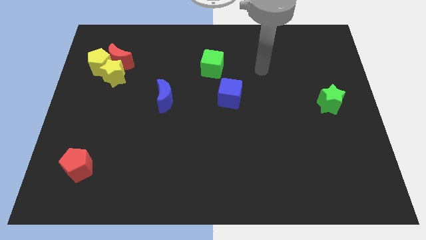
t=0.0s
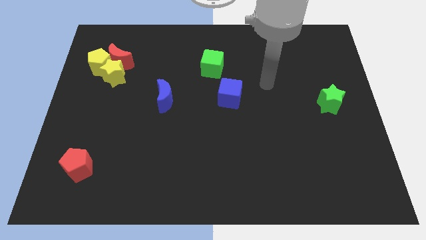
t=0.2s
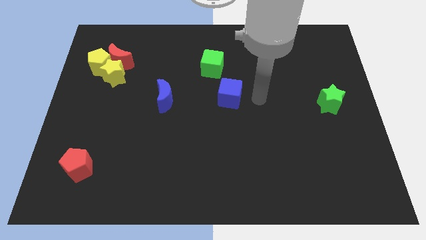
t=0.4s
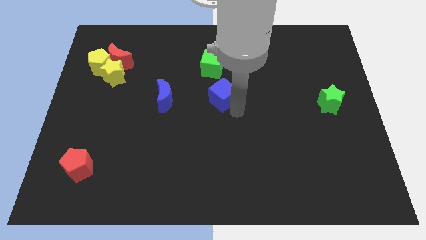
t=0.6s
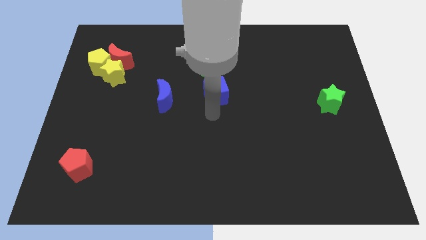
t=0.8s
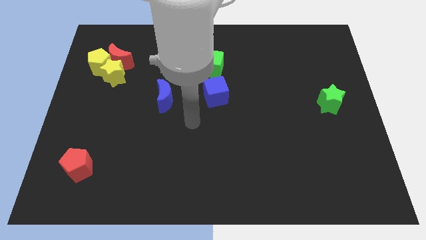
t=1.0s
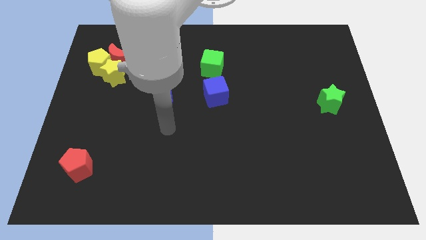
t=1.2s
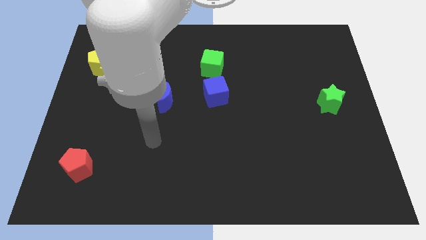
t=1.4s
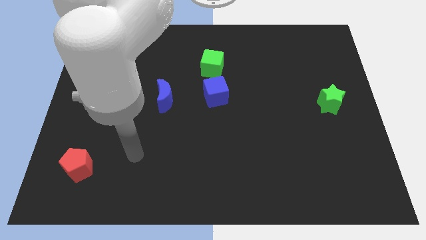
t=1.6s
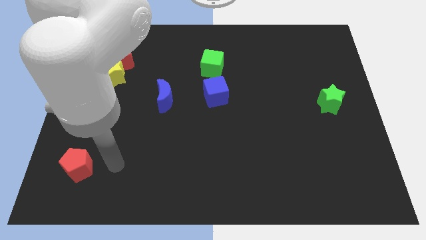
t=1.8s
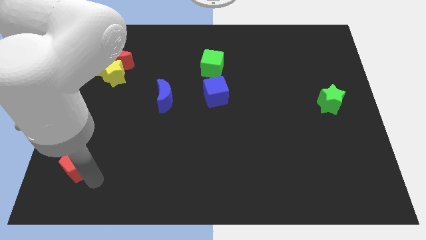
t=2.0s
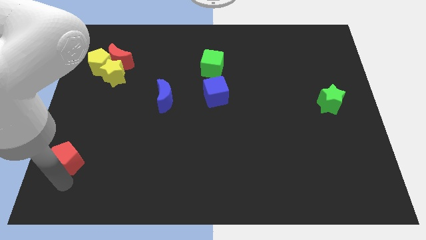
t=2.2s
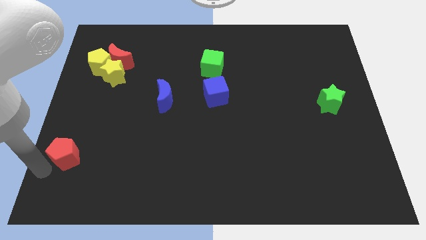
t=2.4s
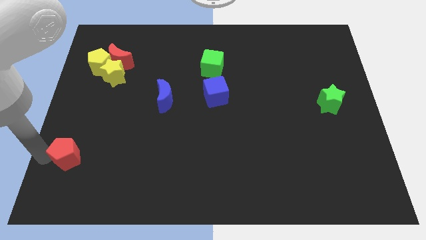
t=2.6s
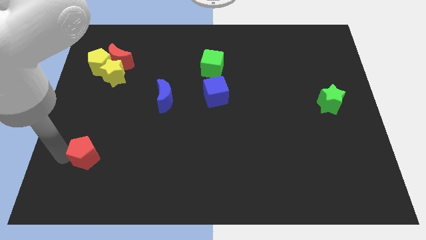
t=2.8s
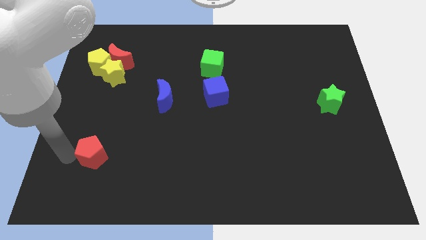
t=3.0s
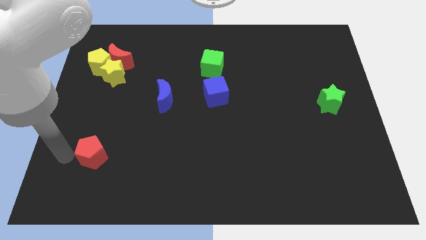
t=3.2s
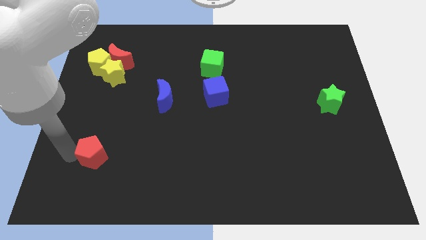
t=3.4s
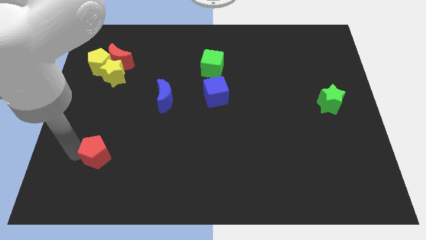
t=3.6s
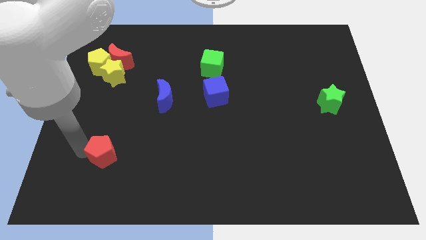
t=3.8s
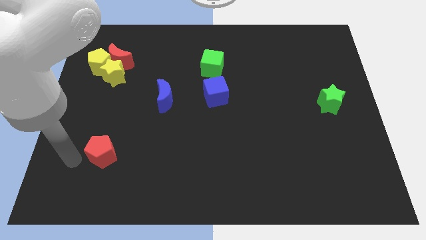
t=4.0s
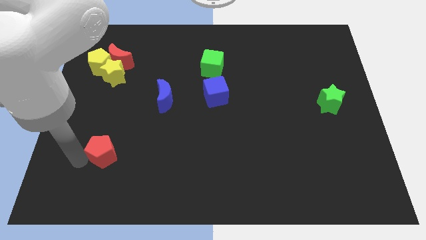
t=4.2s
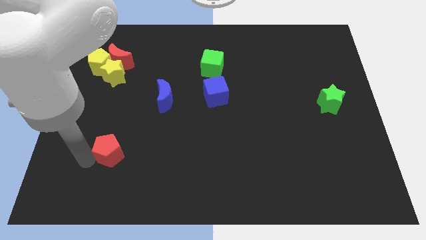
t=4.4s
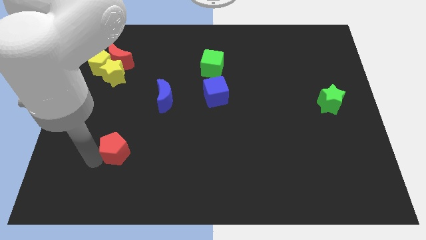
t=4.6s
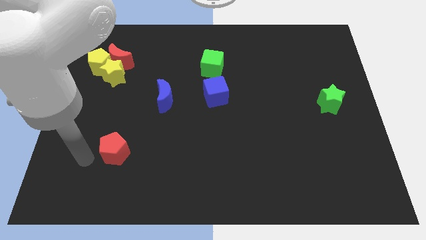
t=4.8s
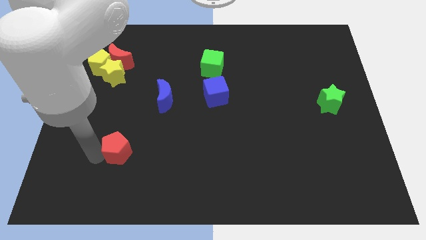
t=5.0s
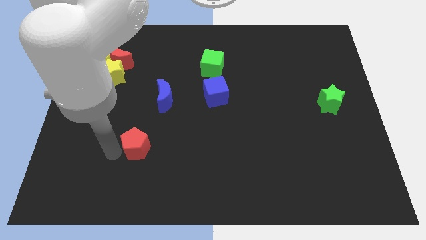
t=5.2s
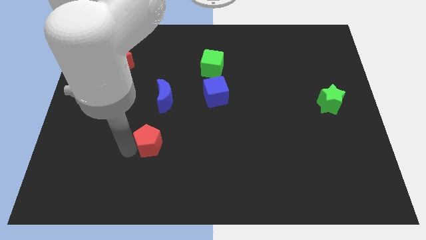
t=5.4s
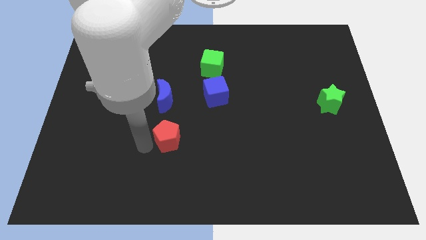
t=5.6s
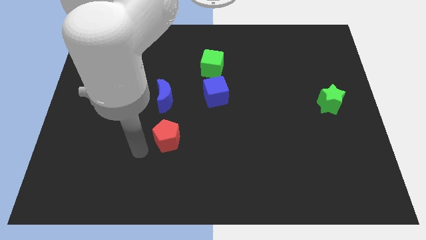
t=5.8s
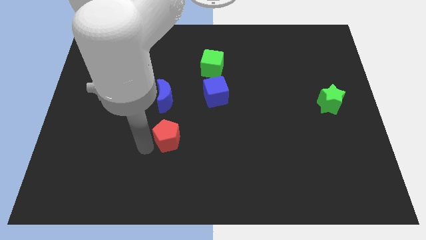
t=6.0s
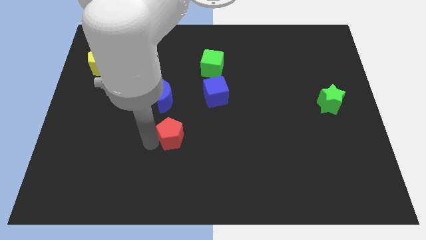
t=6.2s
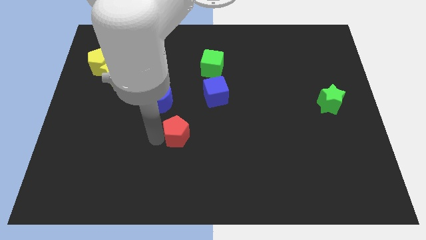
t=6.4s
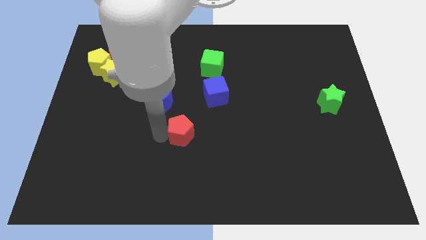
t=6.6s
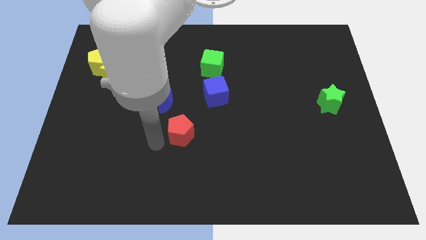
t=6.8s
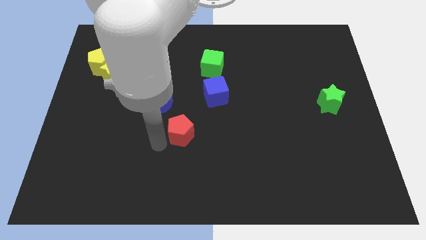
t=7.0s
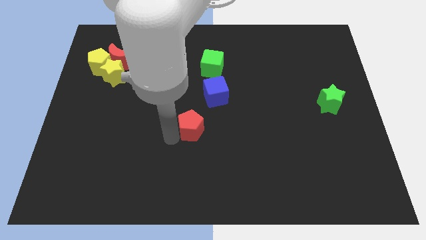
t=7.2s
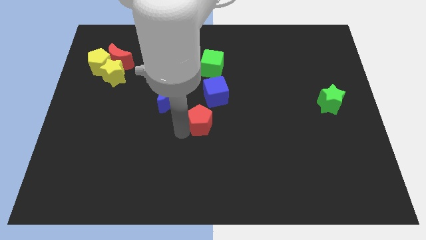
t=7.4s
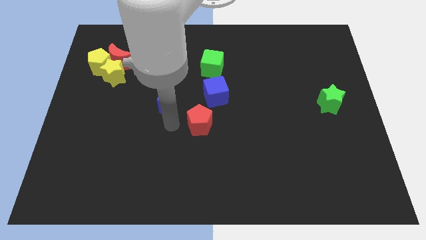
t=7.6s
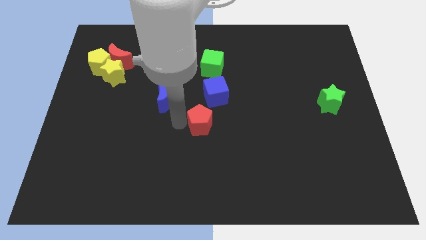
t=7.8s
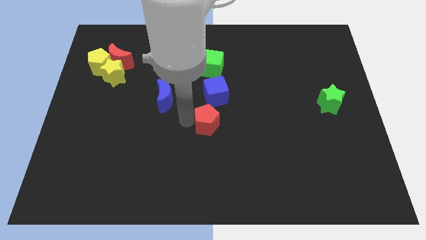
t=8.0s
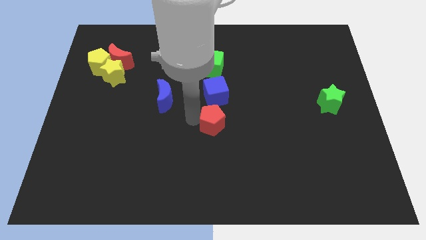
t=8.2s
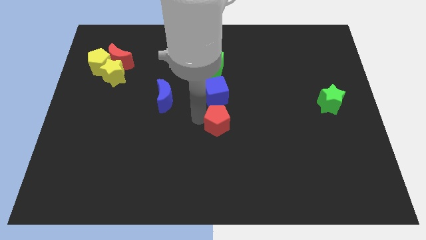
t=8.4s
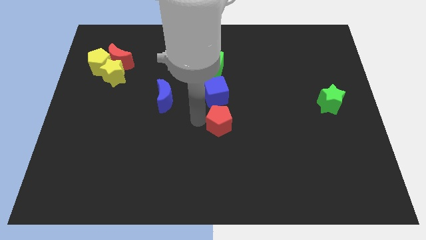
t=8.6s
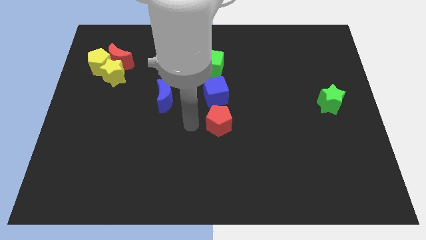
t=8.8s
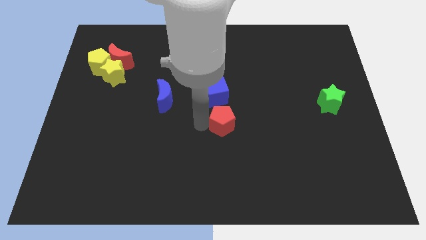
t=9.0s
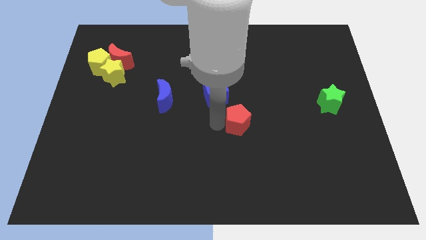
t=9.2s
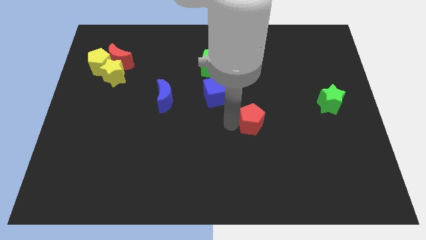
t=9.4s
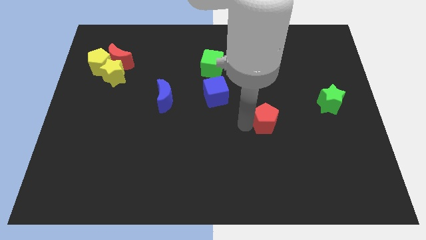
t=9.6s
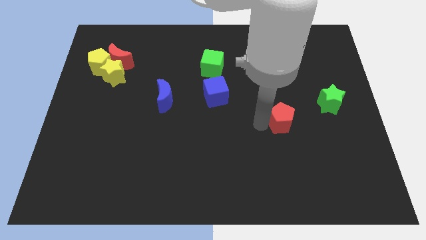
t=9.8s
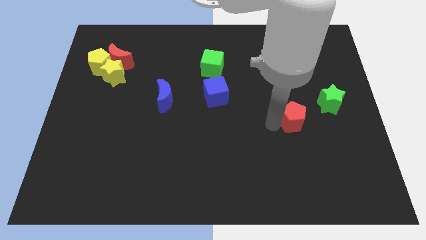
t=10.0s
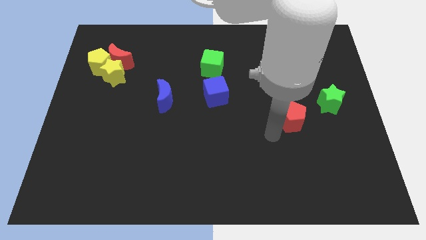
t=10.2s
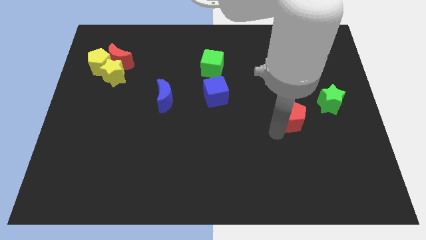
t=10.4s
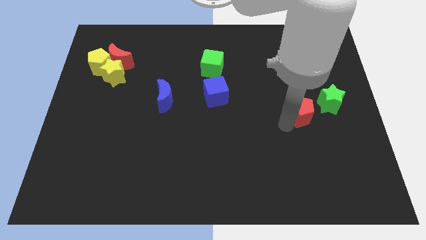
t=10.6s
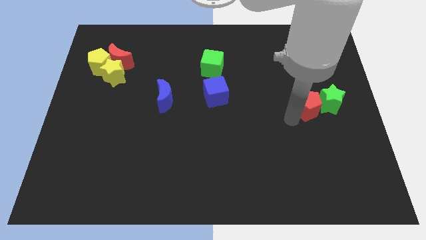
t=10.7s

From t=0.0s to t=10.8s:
push the red pentagon next to the green star

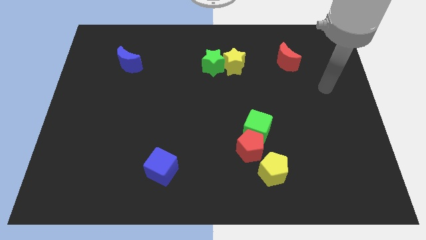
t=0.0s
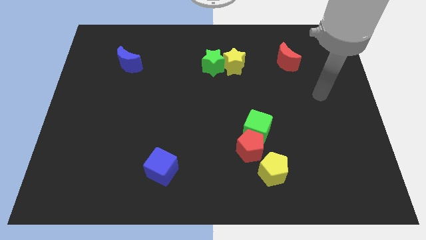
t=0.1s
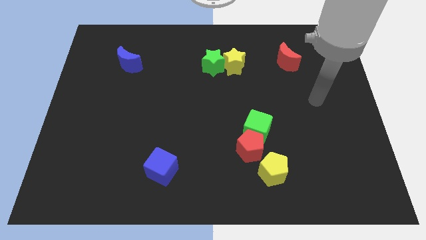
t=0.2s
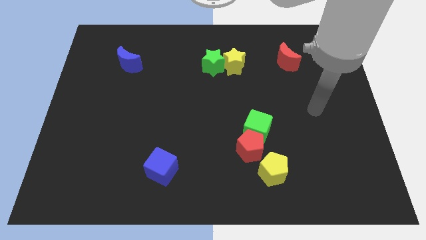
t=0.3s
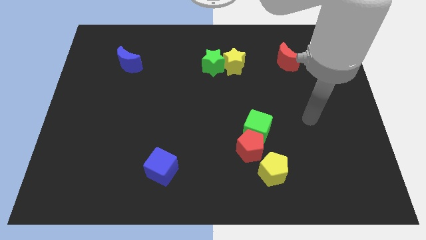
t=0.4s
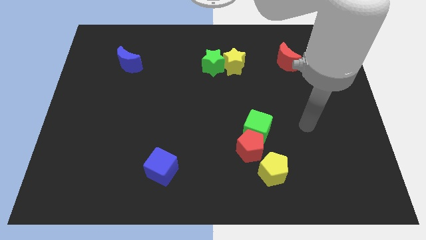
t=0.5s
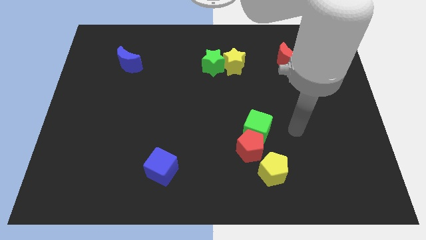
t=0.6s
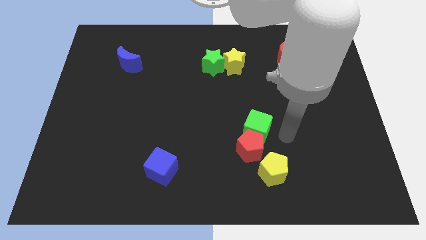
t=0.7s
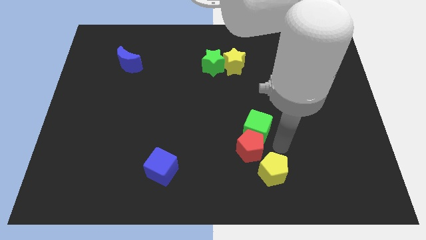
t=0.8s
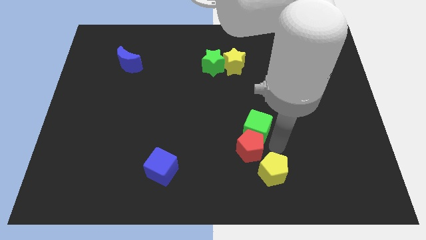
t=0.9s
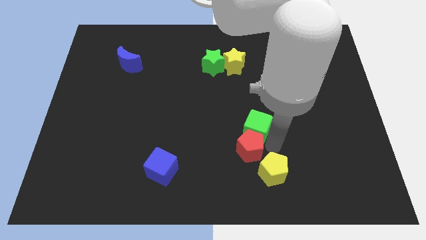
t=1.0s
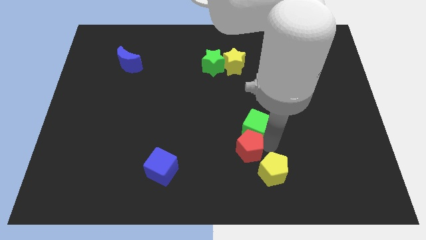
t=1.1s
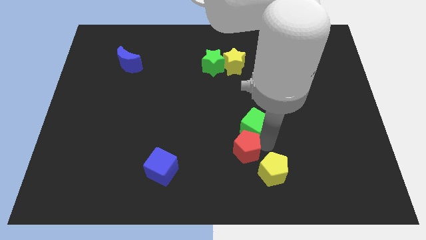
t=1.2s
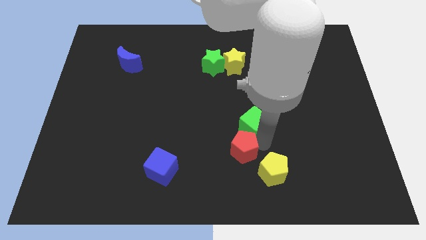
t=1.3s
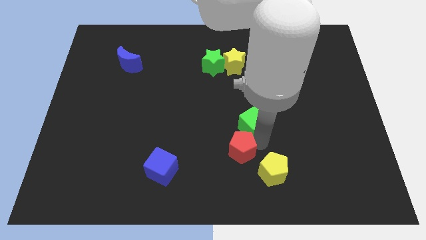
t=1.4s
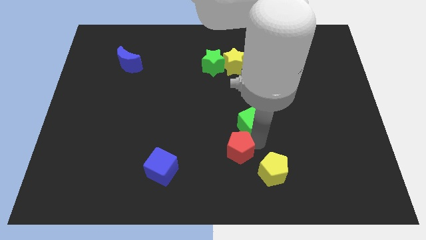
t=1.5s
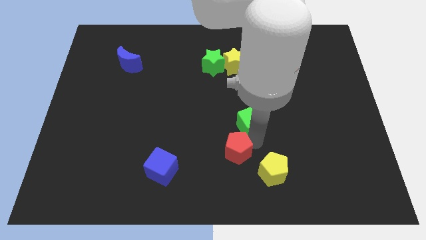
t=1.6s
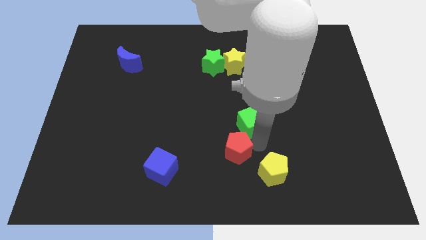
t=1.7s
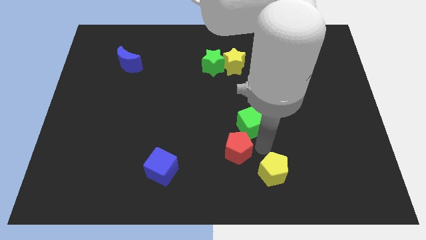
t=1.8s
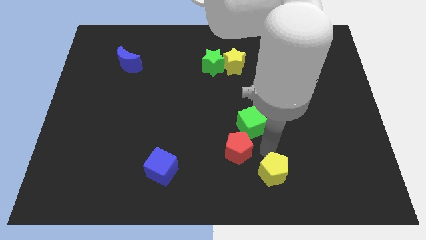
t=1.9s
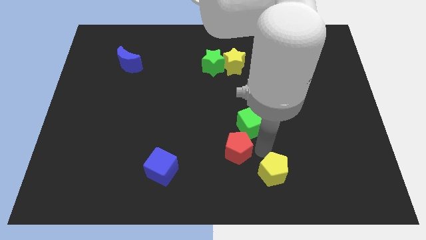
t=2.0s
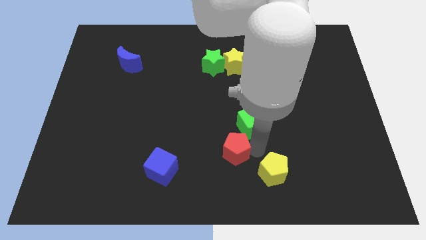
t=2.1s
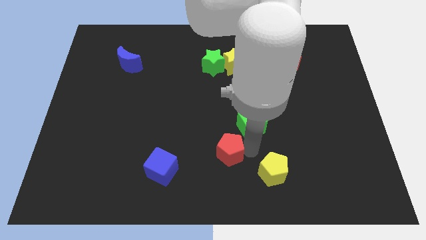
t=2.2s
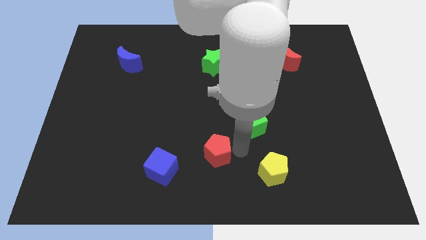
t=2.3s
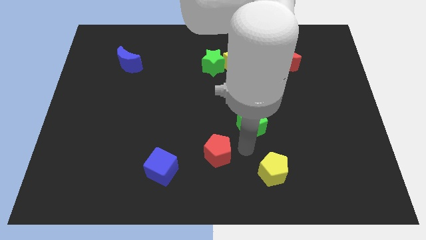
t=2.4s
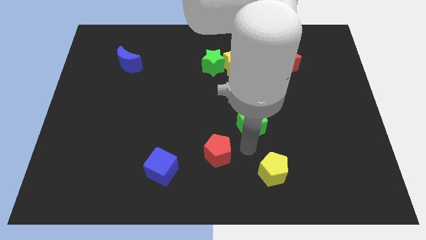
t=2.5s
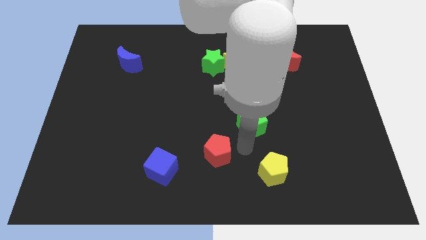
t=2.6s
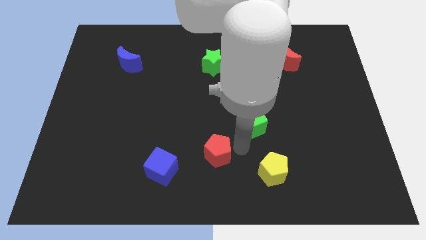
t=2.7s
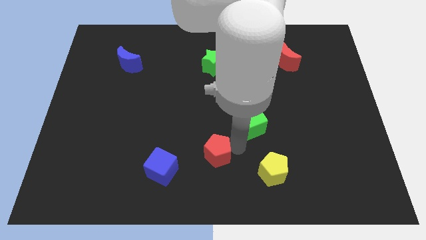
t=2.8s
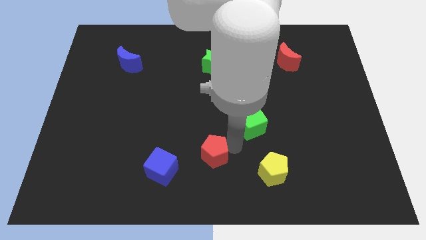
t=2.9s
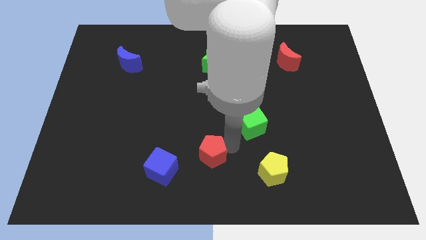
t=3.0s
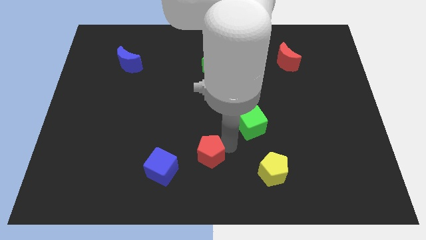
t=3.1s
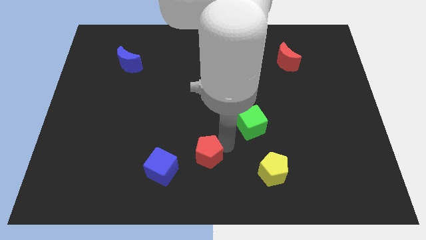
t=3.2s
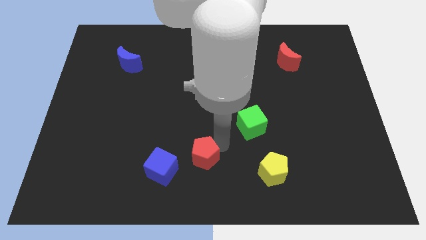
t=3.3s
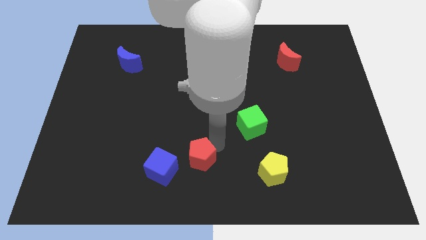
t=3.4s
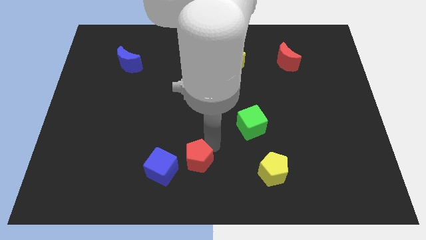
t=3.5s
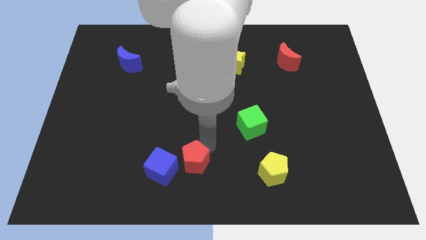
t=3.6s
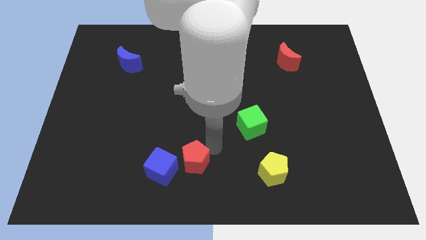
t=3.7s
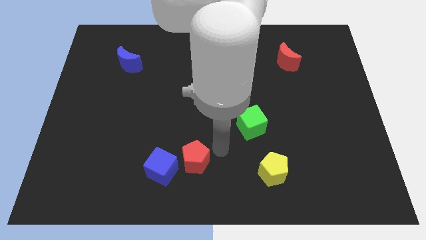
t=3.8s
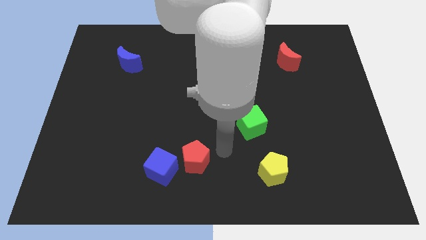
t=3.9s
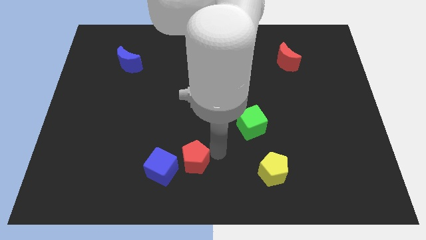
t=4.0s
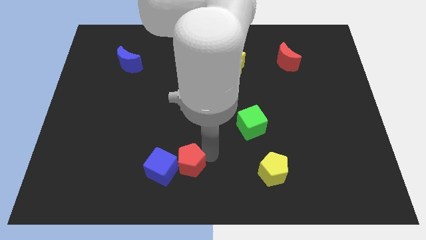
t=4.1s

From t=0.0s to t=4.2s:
put the red pentagon to the blue cube
